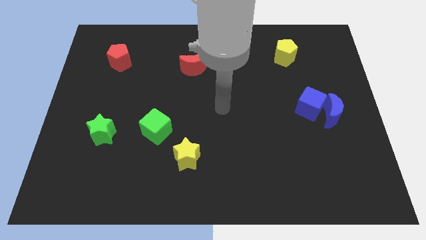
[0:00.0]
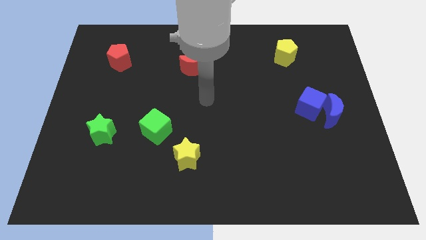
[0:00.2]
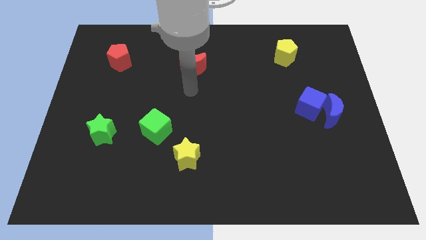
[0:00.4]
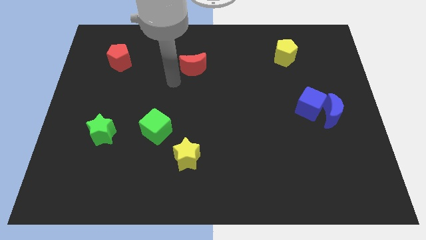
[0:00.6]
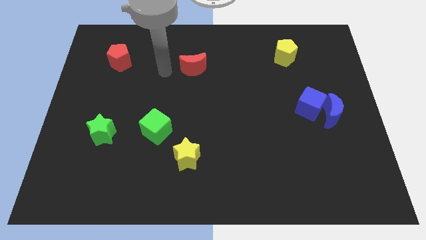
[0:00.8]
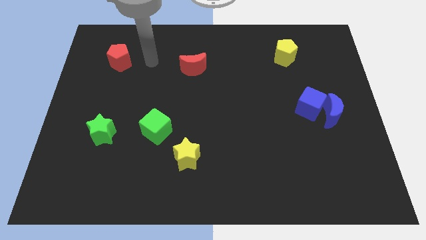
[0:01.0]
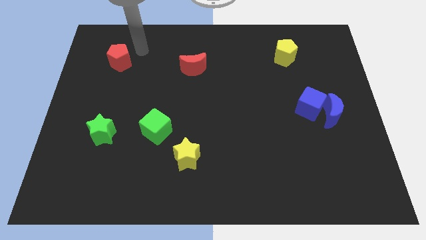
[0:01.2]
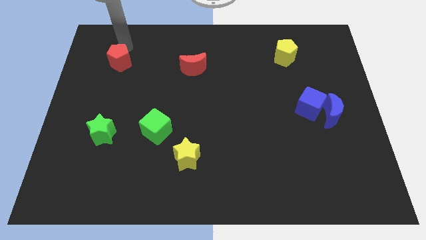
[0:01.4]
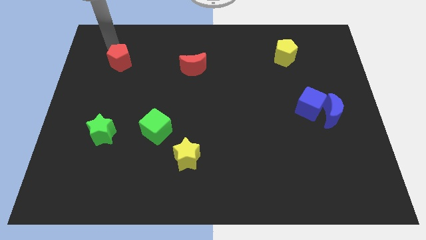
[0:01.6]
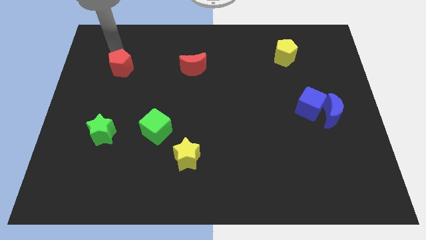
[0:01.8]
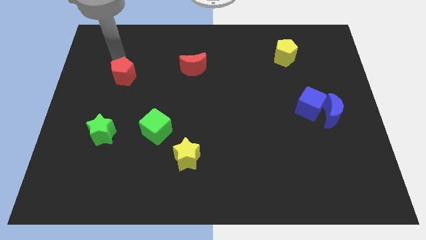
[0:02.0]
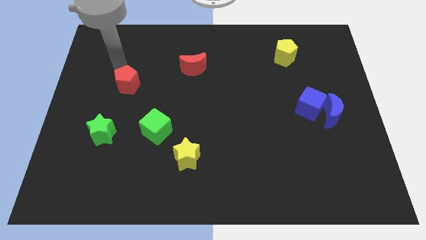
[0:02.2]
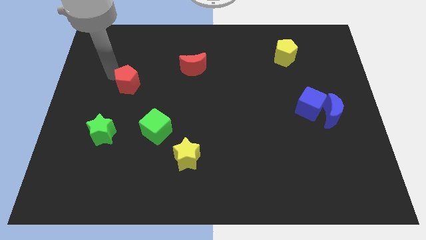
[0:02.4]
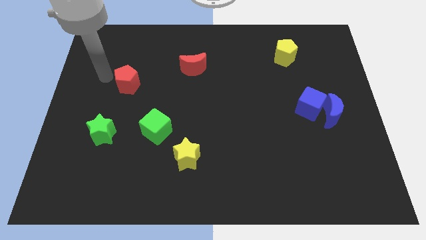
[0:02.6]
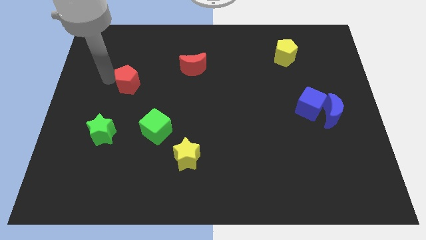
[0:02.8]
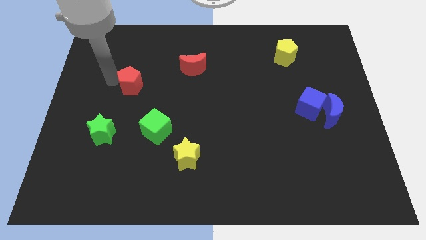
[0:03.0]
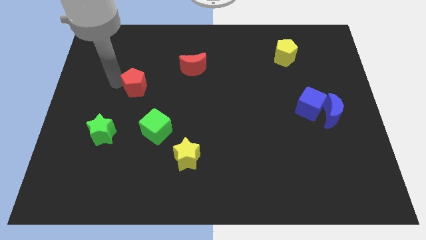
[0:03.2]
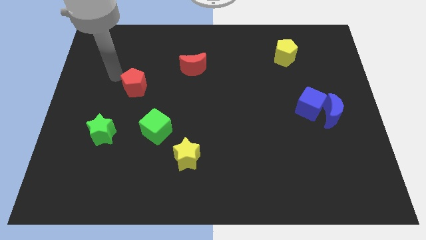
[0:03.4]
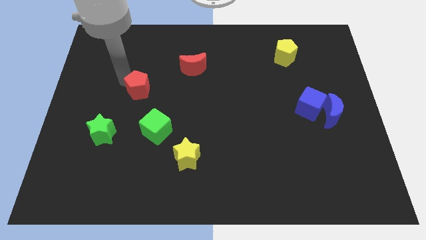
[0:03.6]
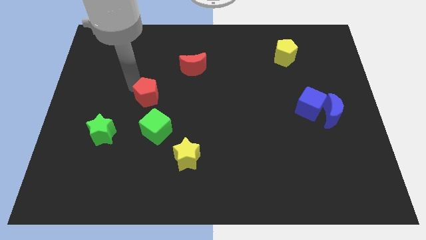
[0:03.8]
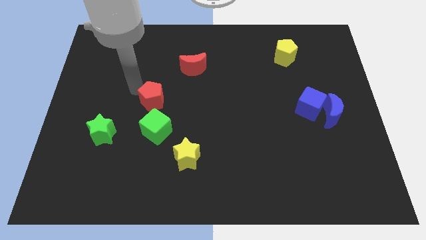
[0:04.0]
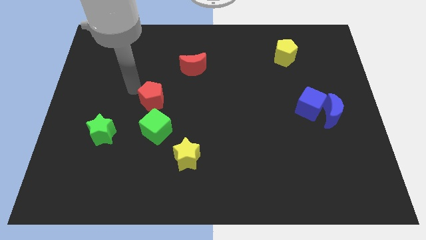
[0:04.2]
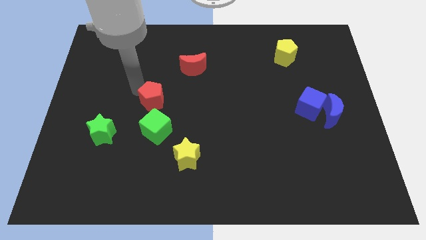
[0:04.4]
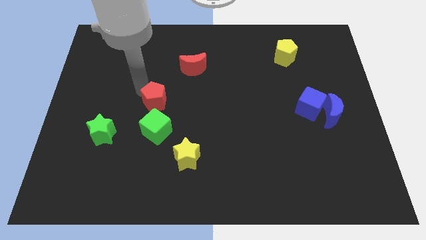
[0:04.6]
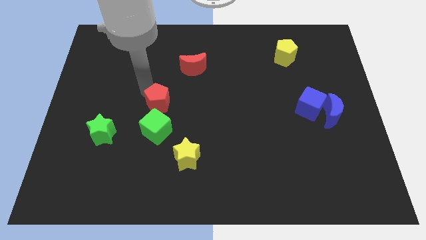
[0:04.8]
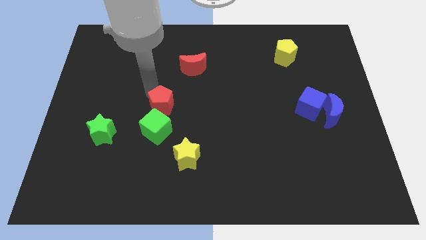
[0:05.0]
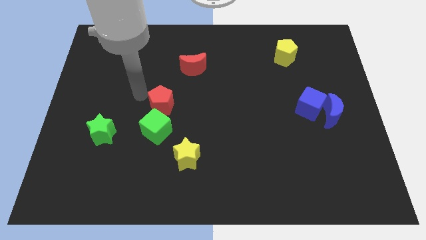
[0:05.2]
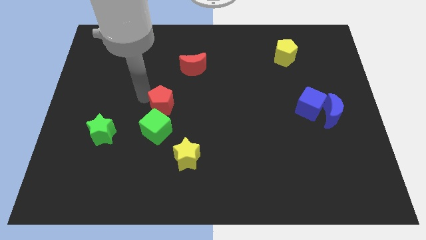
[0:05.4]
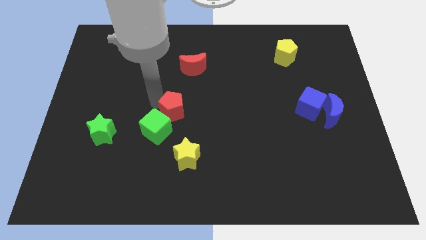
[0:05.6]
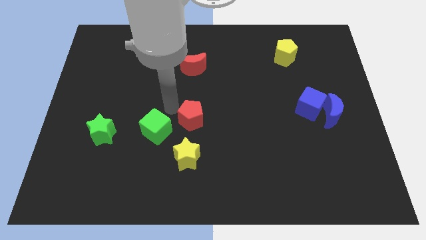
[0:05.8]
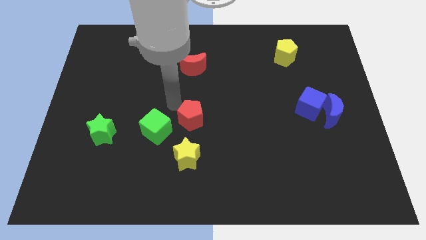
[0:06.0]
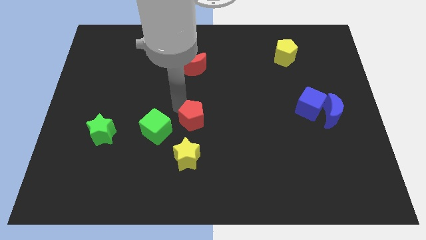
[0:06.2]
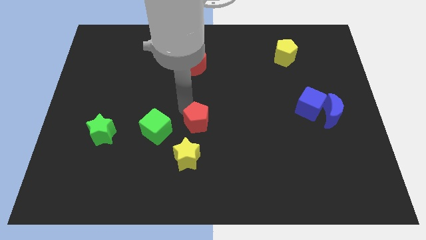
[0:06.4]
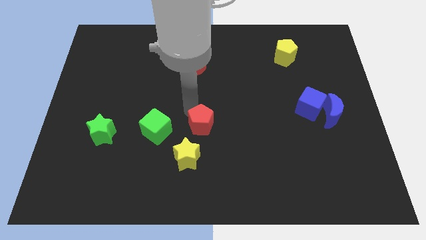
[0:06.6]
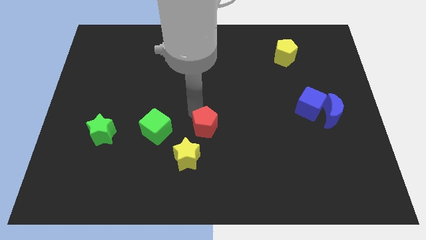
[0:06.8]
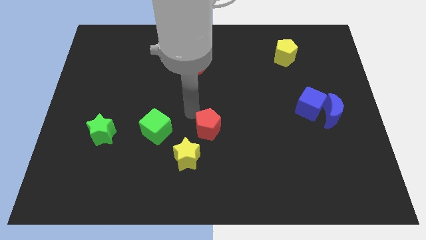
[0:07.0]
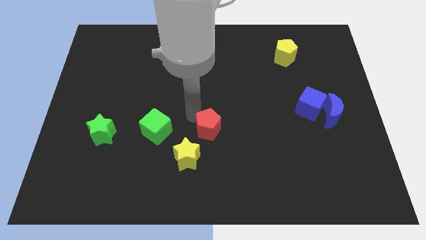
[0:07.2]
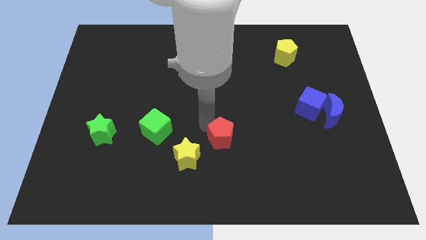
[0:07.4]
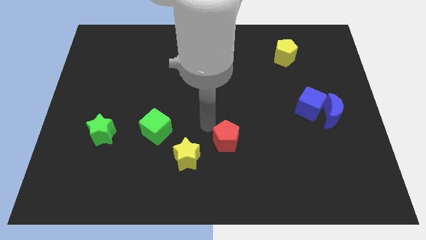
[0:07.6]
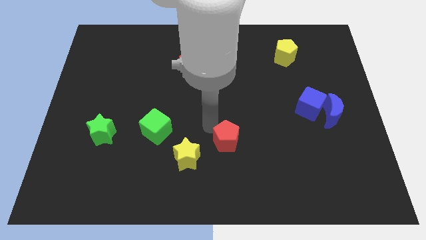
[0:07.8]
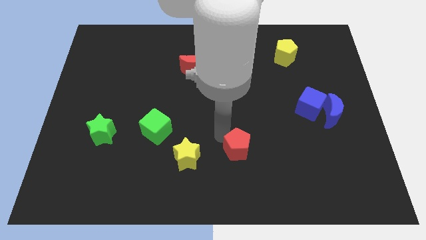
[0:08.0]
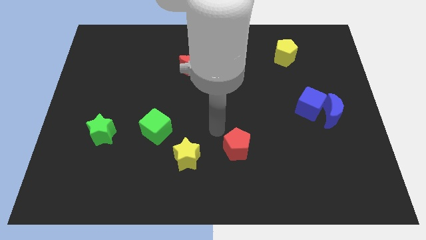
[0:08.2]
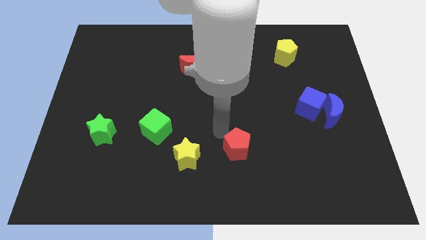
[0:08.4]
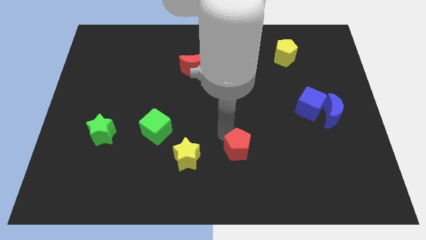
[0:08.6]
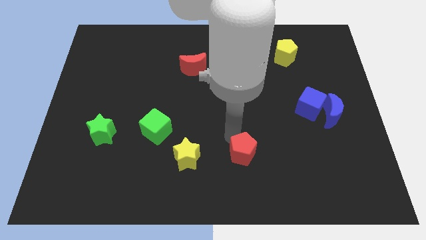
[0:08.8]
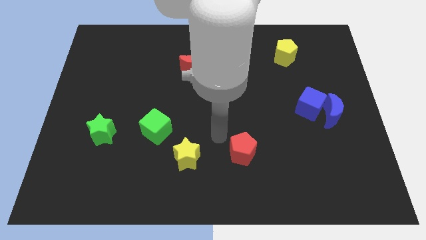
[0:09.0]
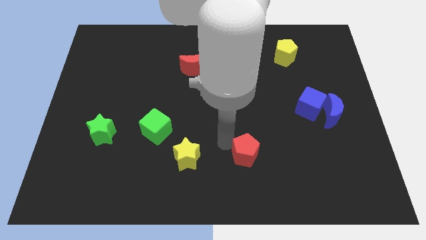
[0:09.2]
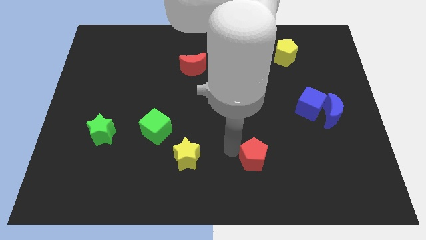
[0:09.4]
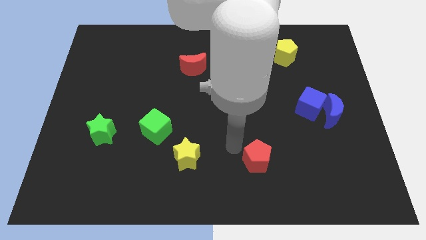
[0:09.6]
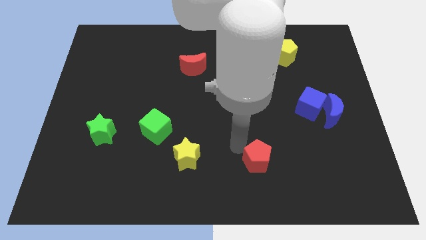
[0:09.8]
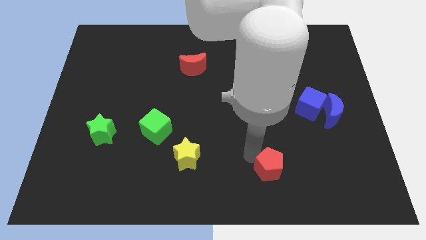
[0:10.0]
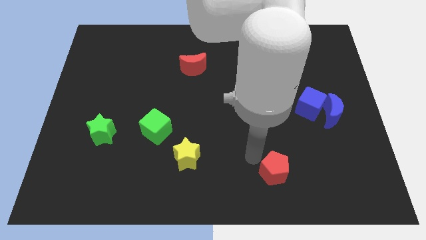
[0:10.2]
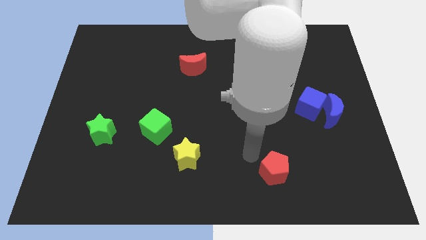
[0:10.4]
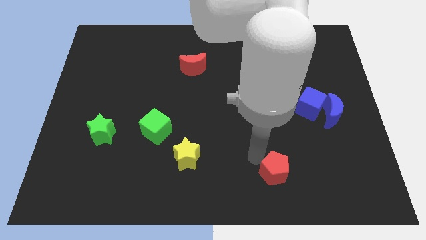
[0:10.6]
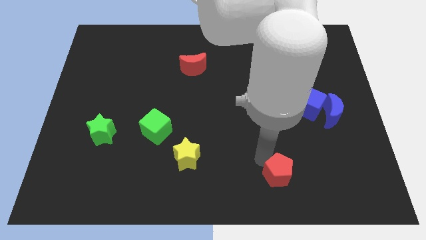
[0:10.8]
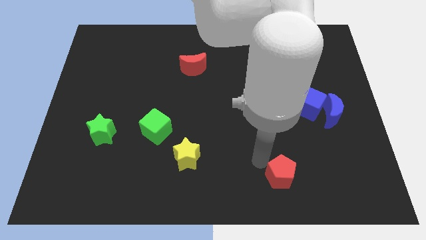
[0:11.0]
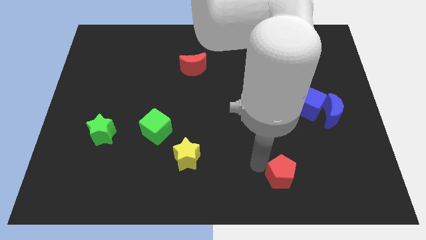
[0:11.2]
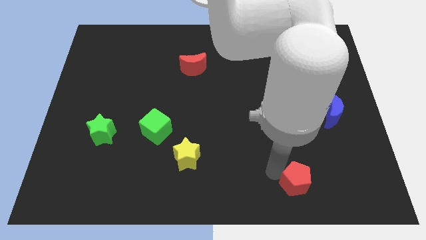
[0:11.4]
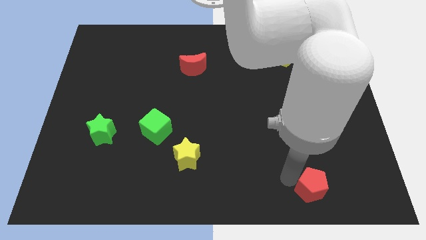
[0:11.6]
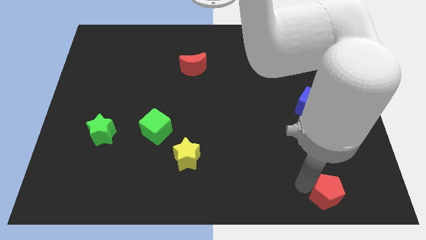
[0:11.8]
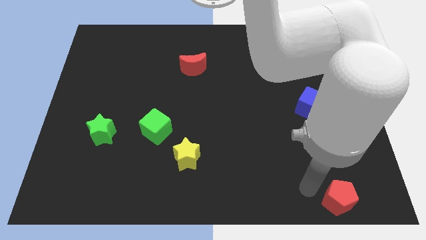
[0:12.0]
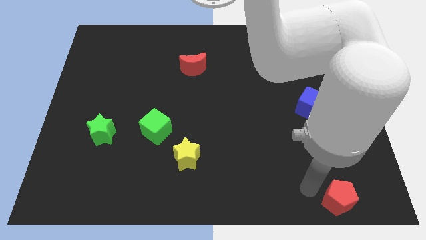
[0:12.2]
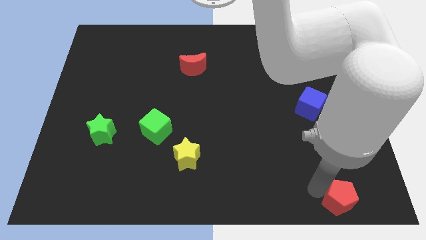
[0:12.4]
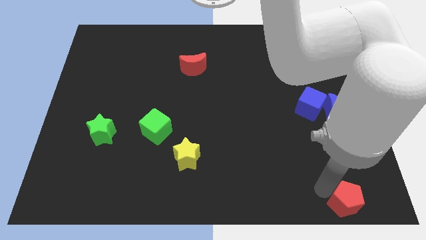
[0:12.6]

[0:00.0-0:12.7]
move the red pentagon to the bottom right

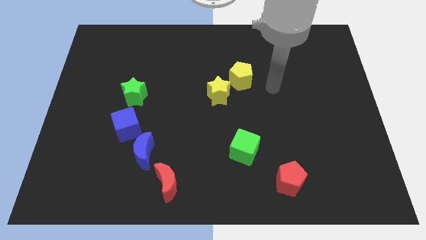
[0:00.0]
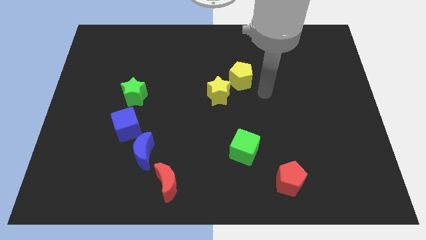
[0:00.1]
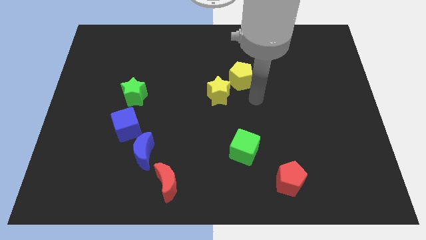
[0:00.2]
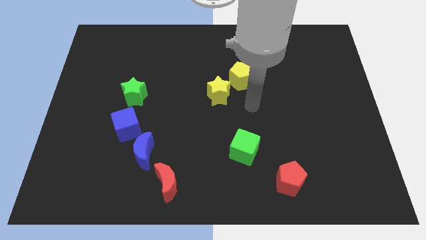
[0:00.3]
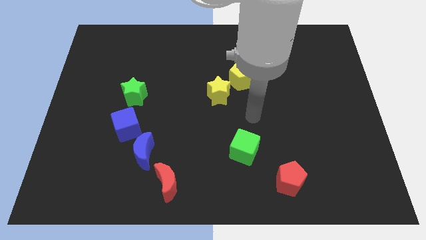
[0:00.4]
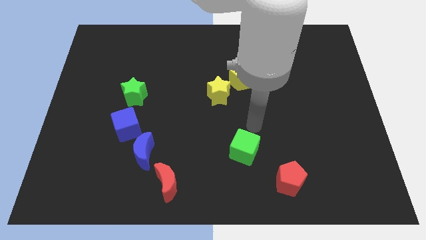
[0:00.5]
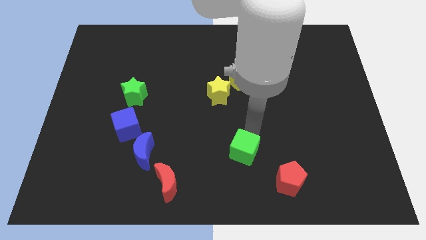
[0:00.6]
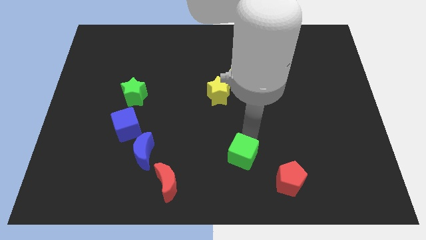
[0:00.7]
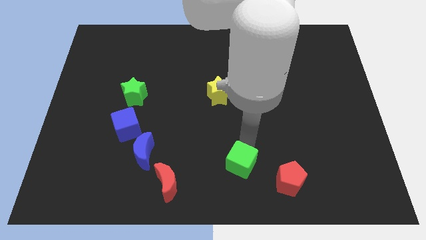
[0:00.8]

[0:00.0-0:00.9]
push the green cube to the bottom side
